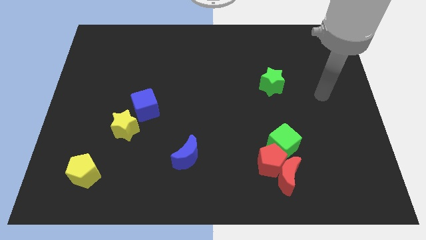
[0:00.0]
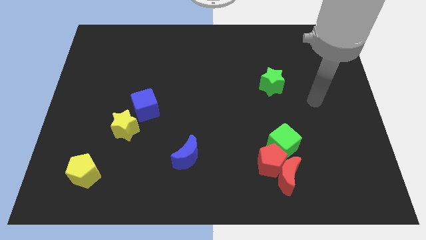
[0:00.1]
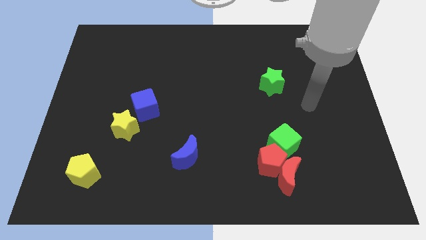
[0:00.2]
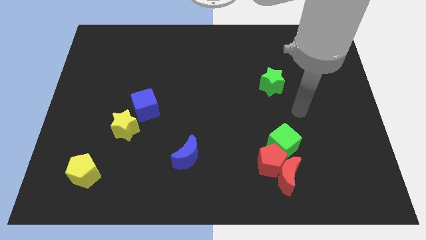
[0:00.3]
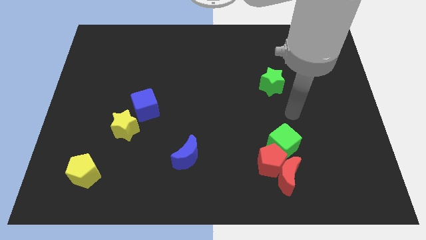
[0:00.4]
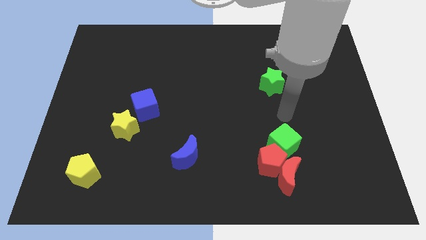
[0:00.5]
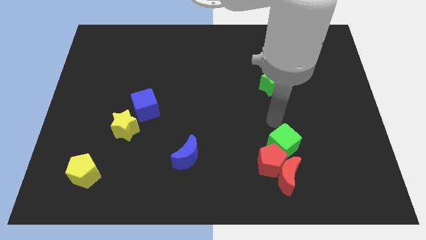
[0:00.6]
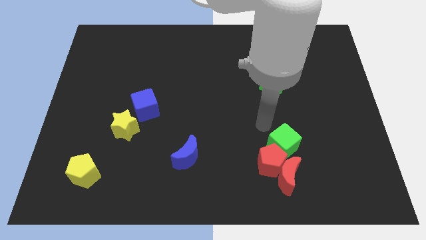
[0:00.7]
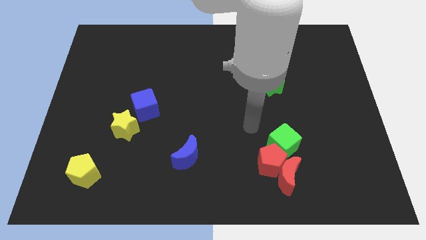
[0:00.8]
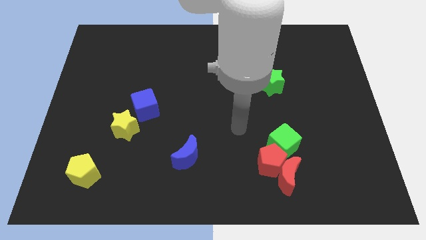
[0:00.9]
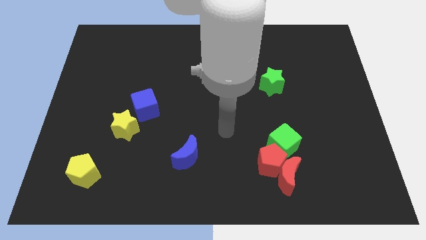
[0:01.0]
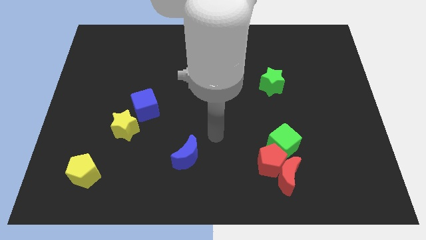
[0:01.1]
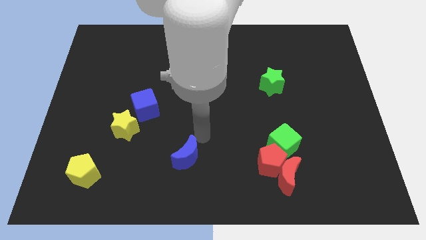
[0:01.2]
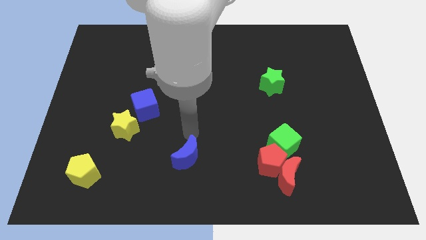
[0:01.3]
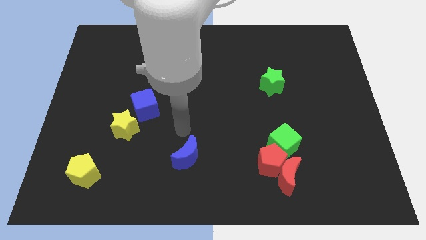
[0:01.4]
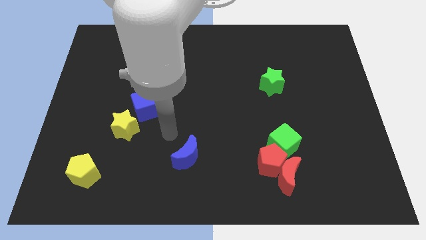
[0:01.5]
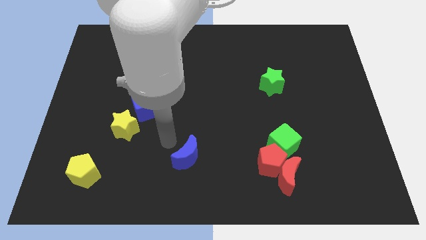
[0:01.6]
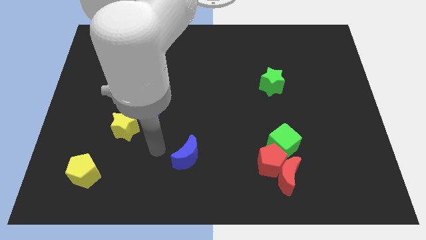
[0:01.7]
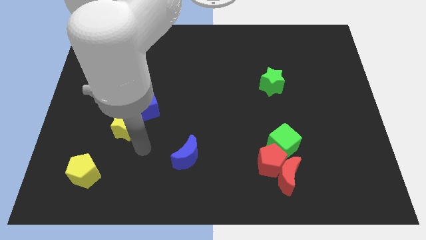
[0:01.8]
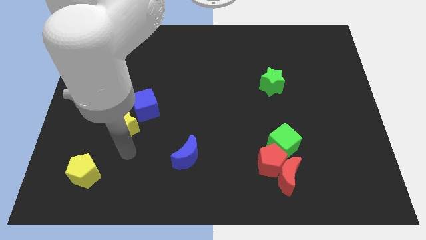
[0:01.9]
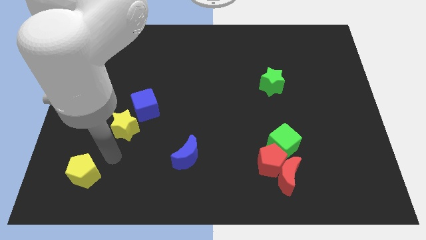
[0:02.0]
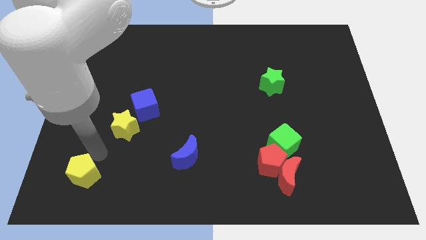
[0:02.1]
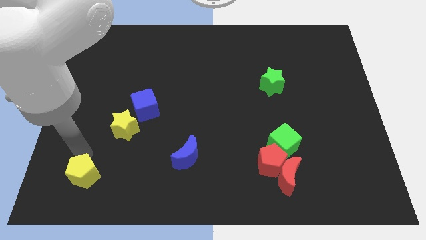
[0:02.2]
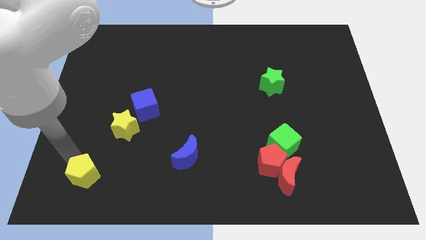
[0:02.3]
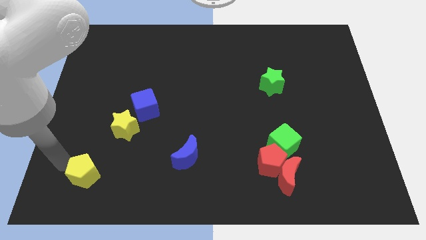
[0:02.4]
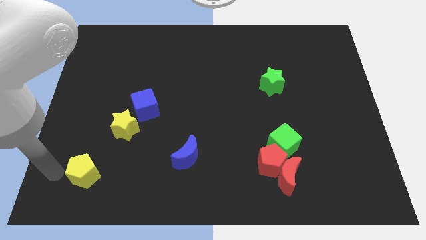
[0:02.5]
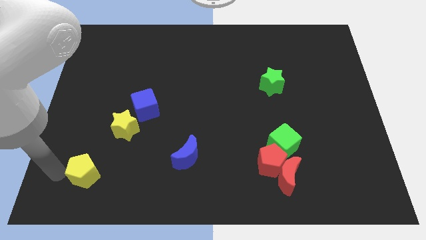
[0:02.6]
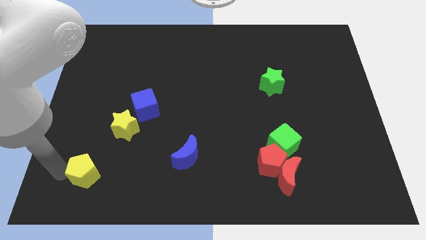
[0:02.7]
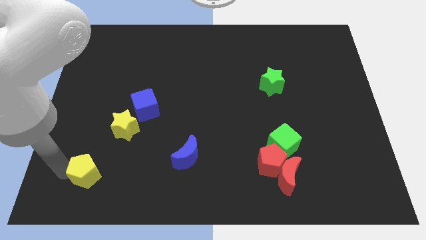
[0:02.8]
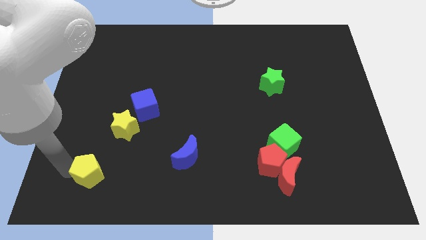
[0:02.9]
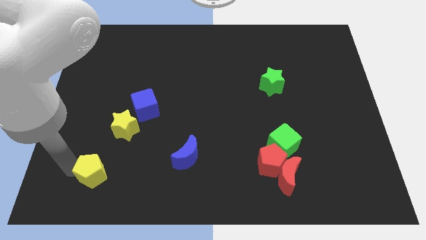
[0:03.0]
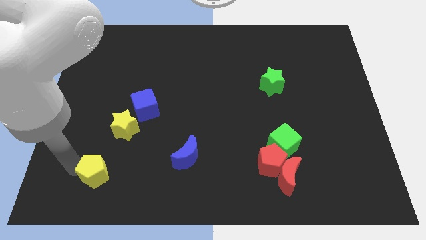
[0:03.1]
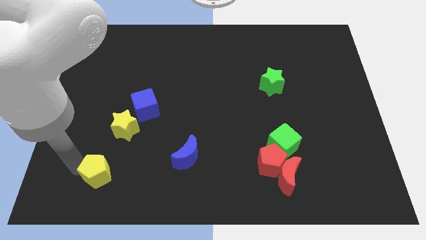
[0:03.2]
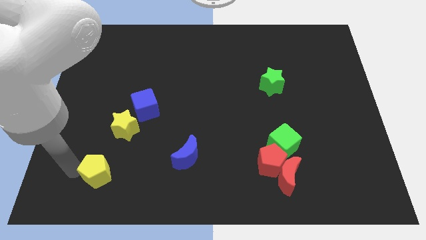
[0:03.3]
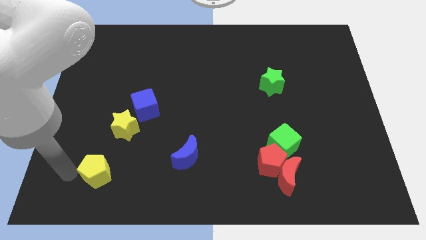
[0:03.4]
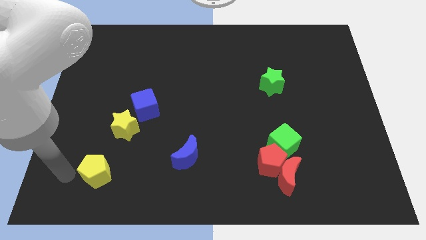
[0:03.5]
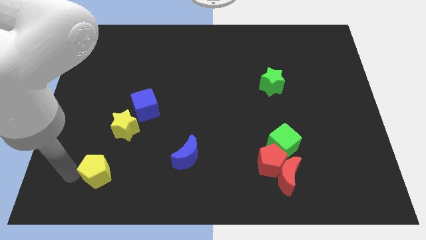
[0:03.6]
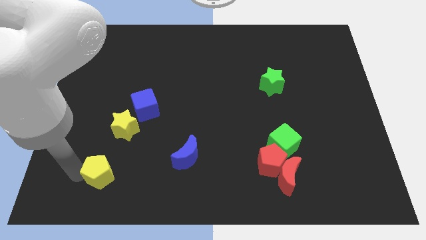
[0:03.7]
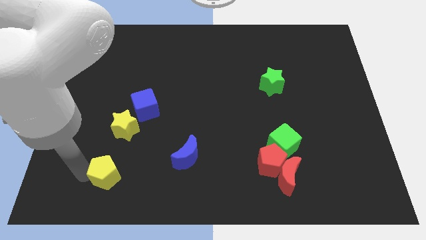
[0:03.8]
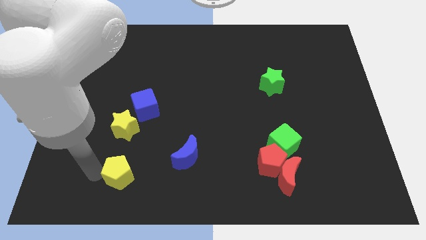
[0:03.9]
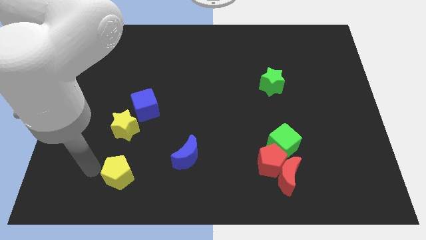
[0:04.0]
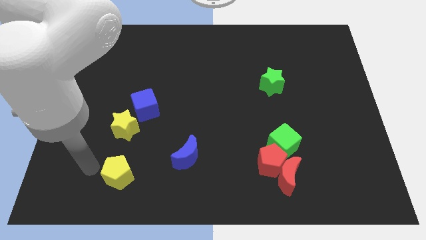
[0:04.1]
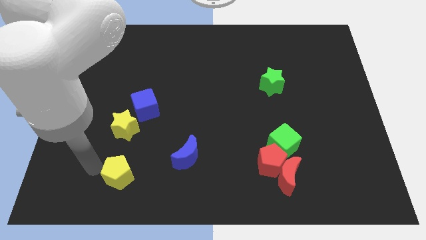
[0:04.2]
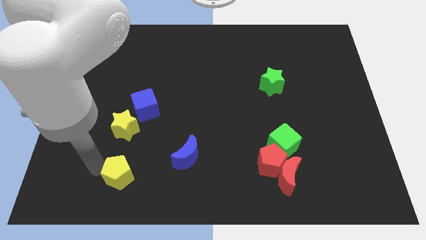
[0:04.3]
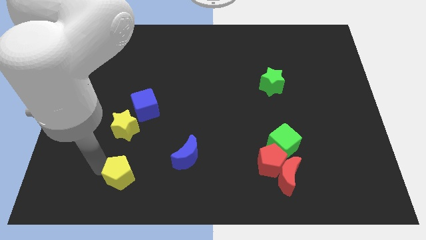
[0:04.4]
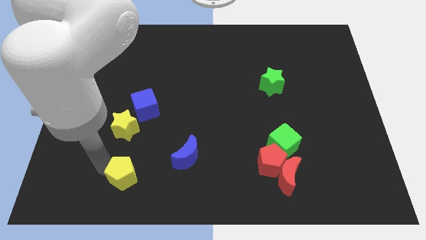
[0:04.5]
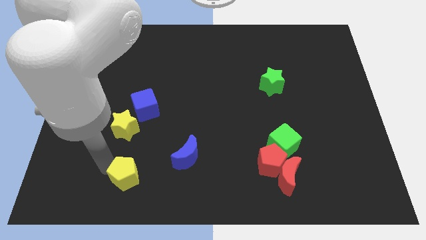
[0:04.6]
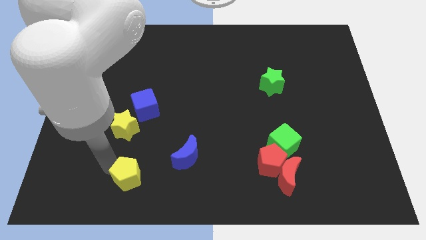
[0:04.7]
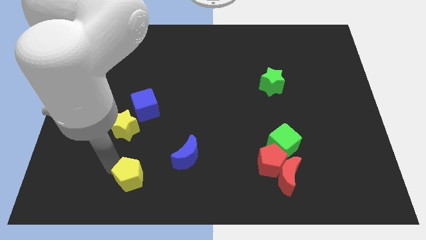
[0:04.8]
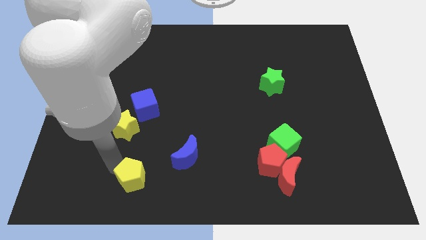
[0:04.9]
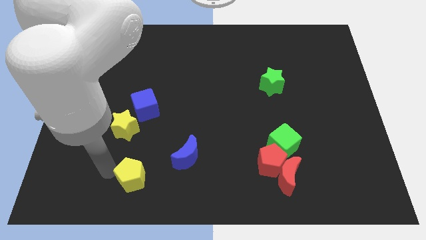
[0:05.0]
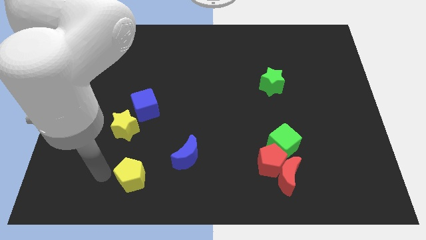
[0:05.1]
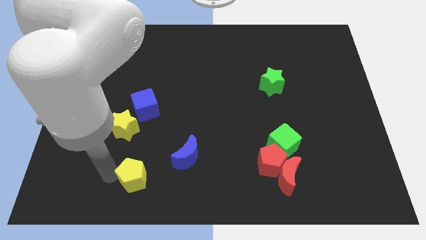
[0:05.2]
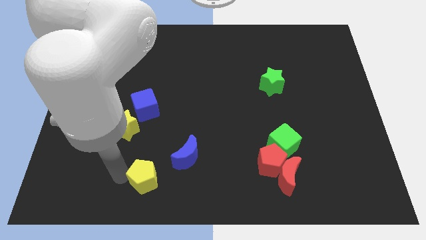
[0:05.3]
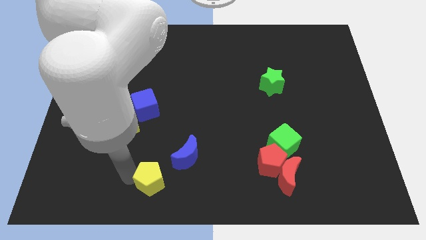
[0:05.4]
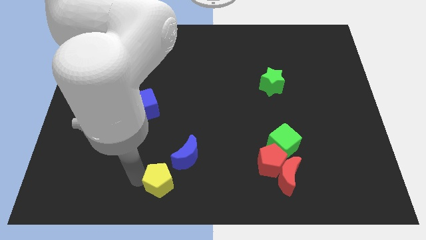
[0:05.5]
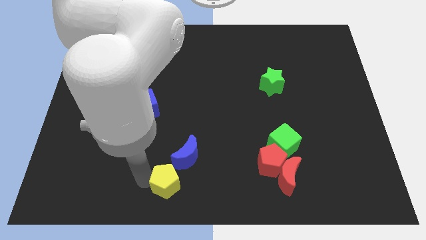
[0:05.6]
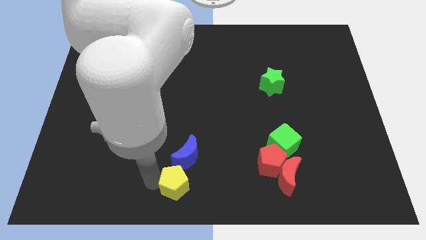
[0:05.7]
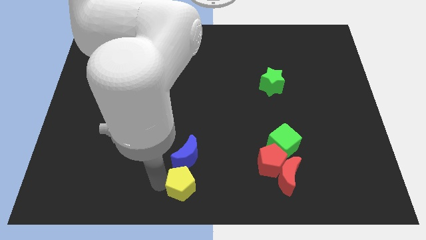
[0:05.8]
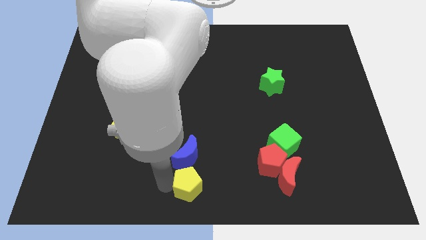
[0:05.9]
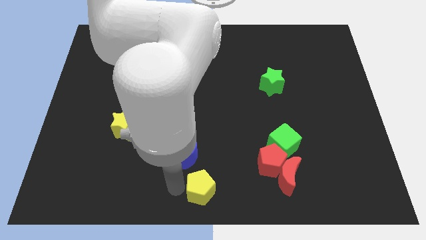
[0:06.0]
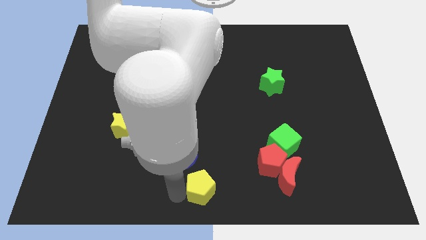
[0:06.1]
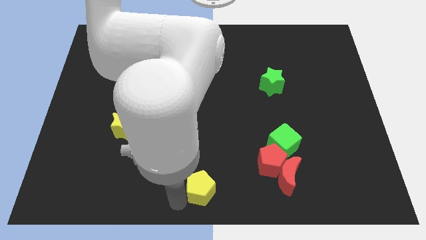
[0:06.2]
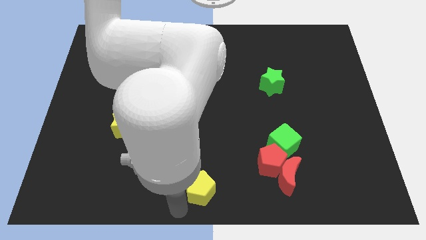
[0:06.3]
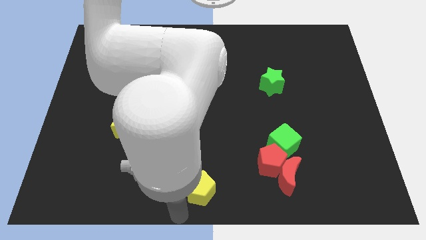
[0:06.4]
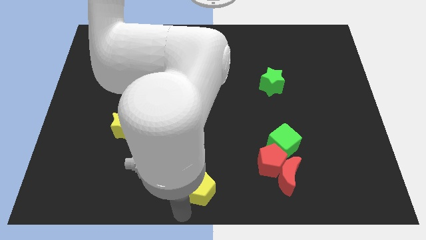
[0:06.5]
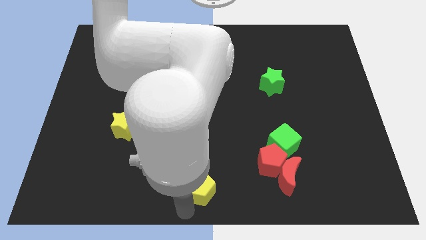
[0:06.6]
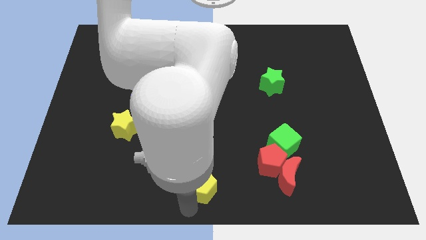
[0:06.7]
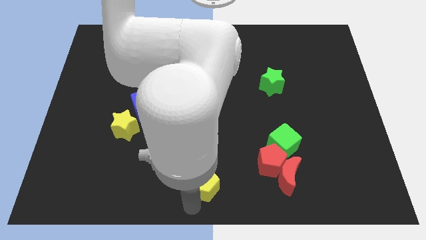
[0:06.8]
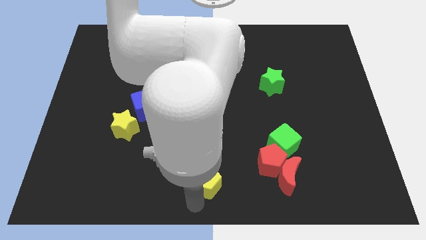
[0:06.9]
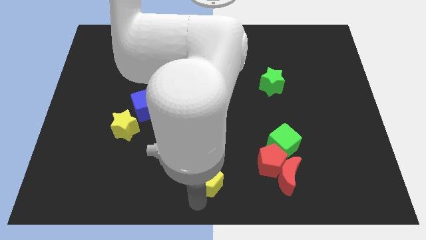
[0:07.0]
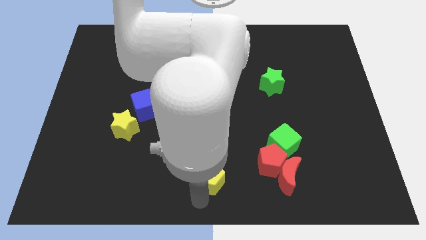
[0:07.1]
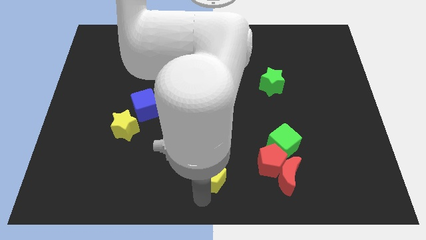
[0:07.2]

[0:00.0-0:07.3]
slide the yellow pentagon to the right of the blue moon
